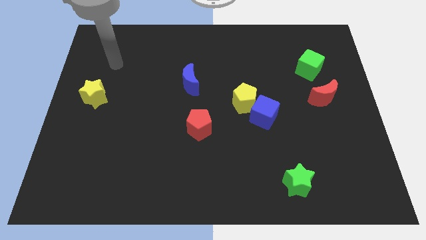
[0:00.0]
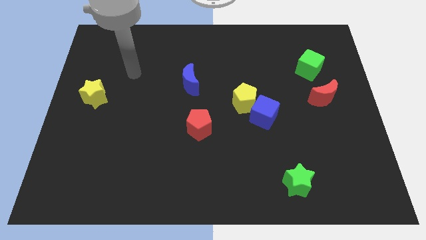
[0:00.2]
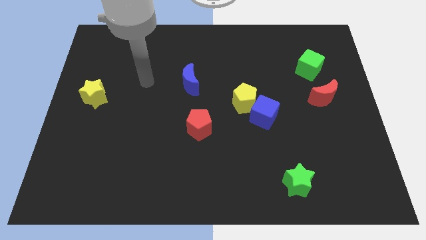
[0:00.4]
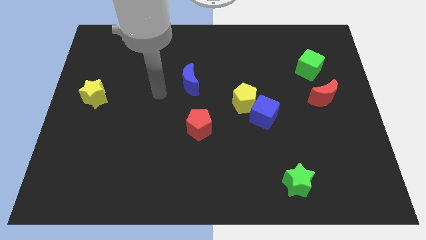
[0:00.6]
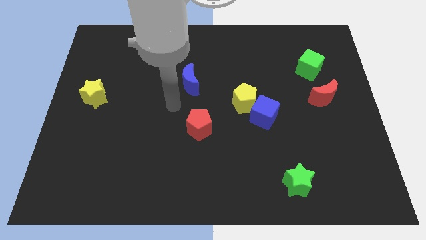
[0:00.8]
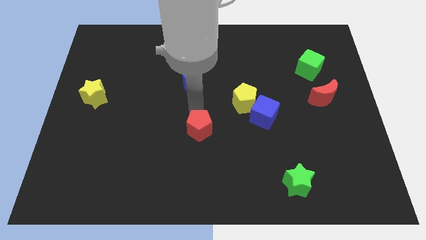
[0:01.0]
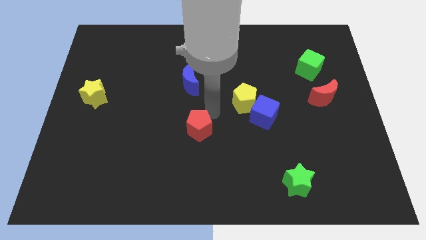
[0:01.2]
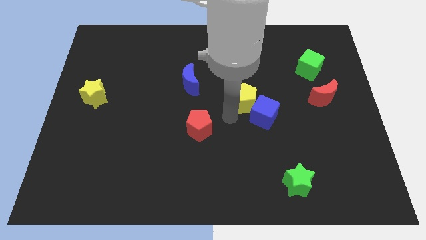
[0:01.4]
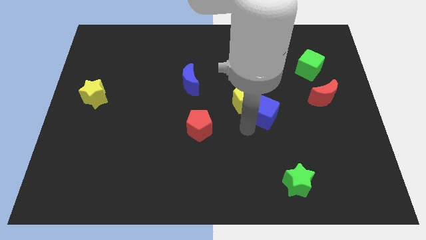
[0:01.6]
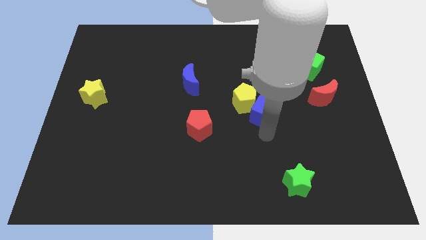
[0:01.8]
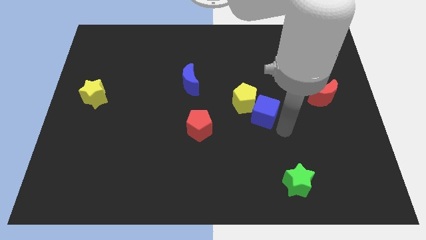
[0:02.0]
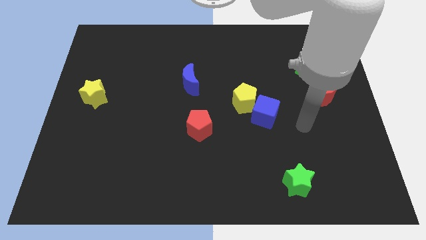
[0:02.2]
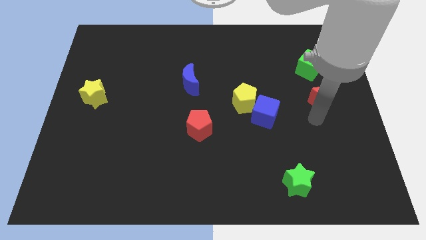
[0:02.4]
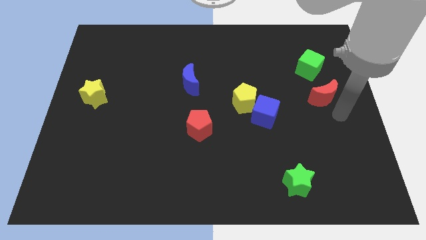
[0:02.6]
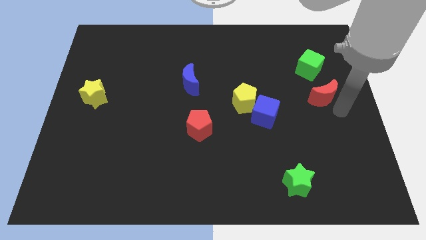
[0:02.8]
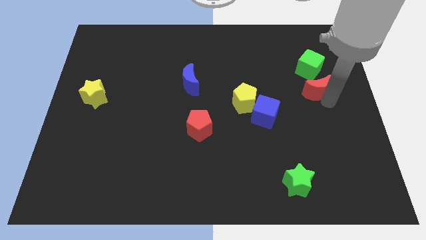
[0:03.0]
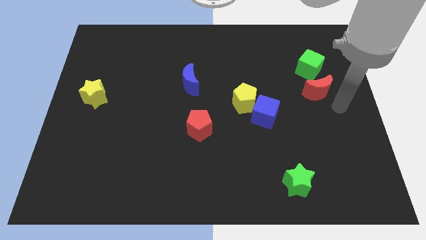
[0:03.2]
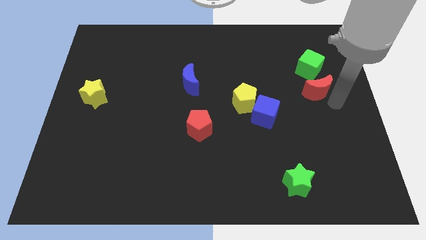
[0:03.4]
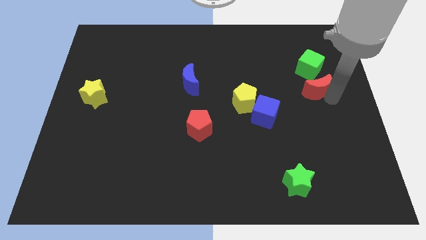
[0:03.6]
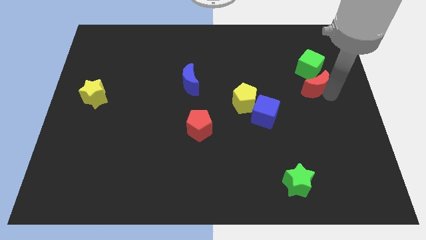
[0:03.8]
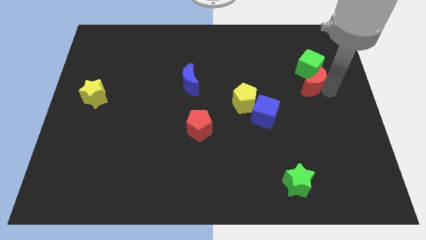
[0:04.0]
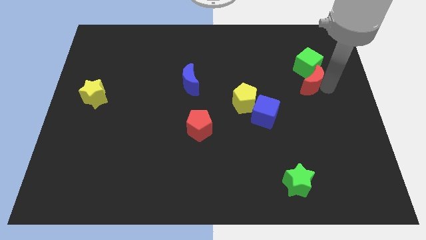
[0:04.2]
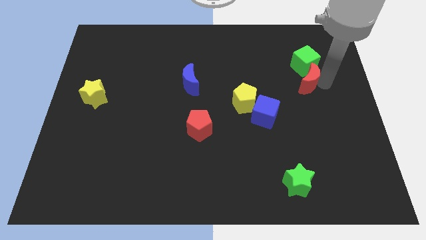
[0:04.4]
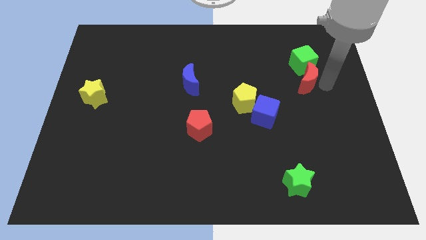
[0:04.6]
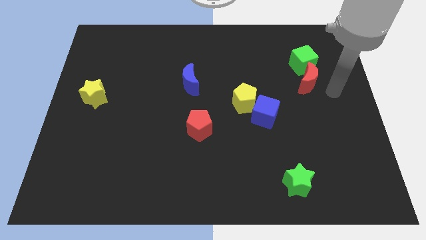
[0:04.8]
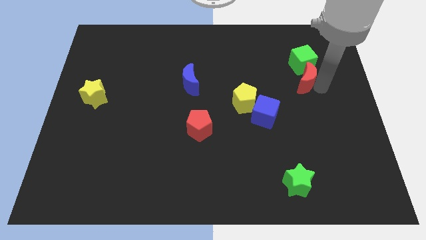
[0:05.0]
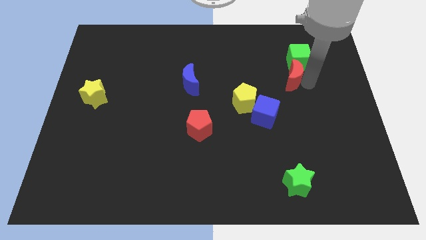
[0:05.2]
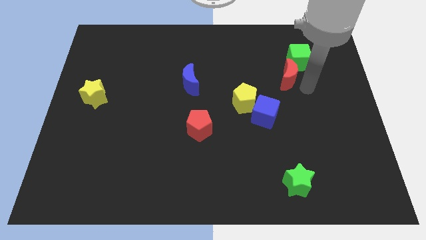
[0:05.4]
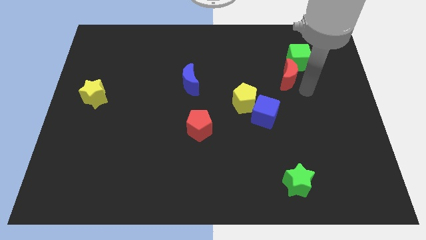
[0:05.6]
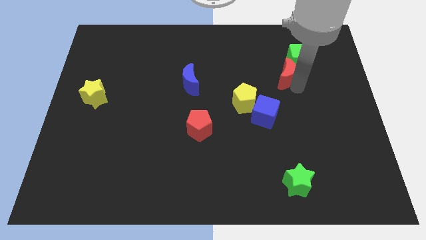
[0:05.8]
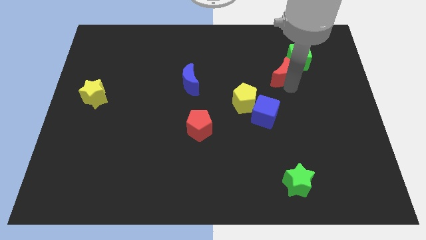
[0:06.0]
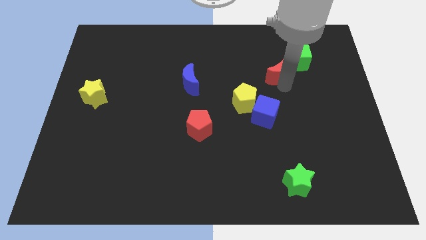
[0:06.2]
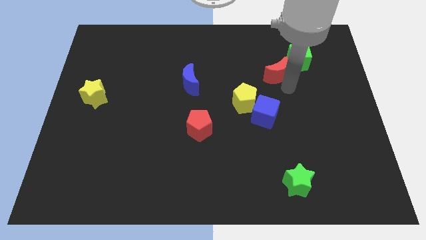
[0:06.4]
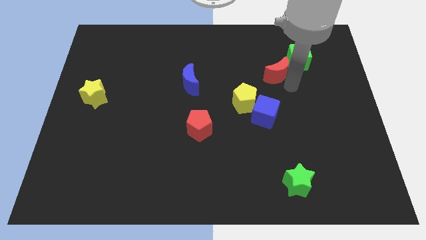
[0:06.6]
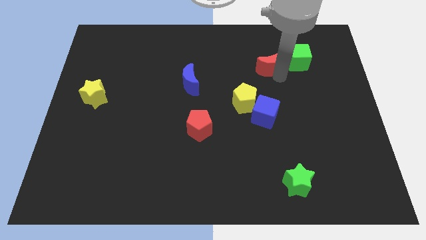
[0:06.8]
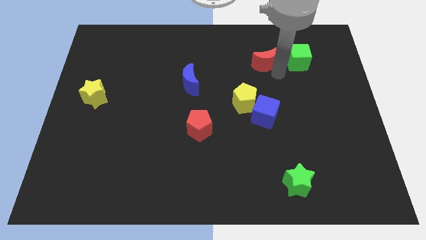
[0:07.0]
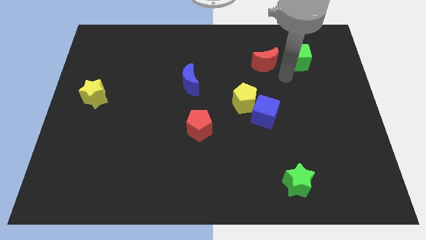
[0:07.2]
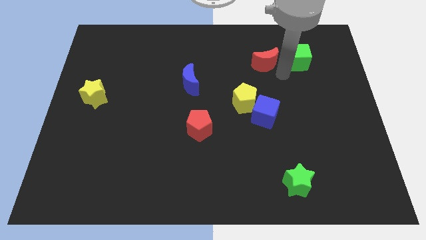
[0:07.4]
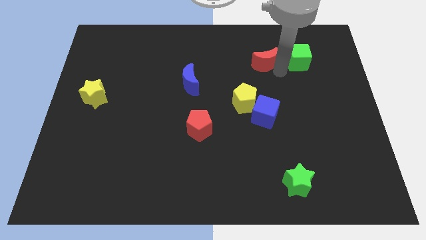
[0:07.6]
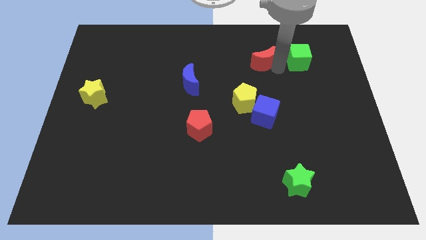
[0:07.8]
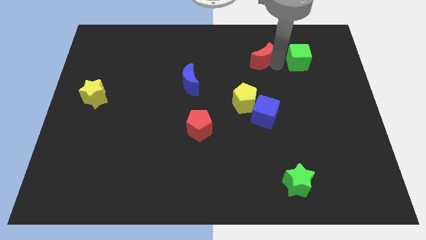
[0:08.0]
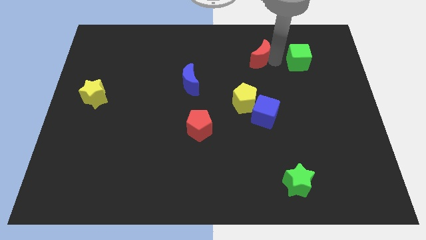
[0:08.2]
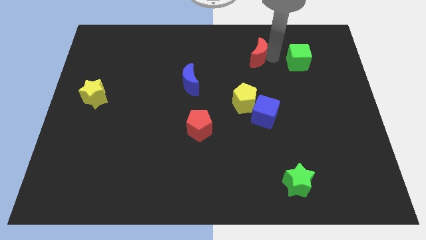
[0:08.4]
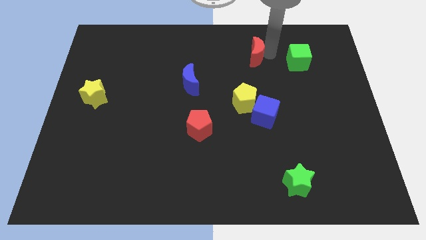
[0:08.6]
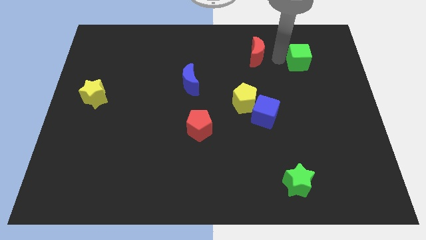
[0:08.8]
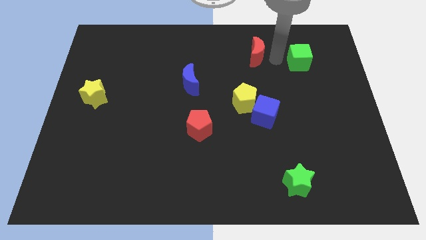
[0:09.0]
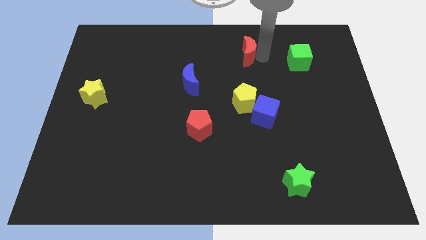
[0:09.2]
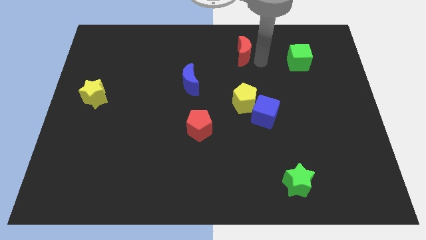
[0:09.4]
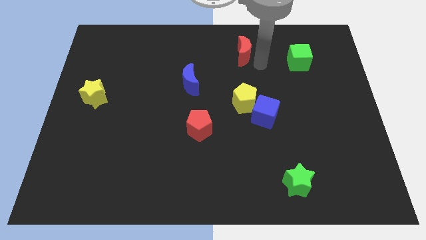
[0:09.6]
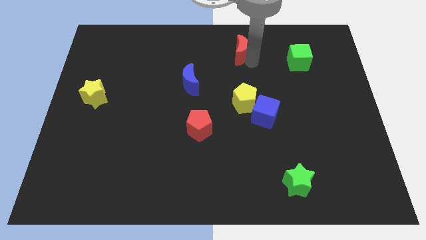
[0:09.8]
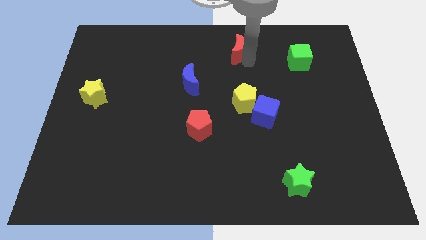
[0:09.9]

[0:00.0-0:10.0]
slide the red moon to the top

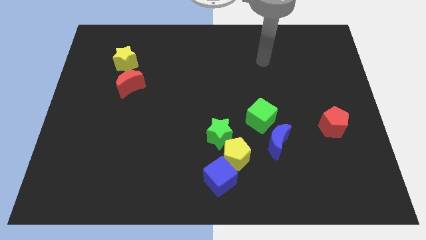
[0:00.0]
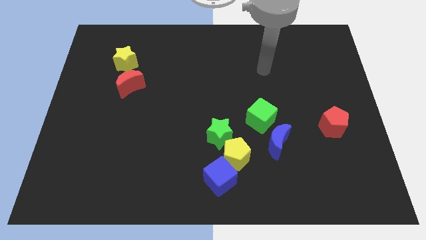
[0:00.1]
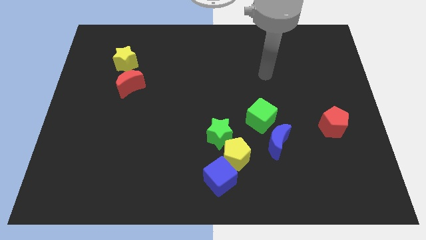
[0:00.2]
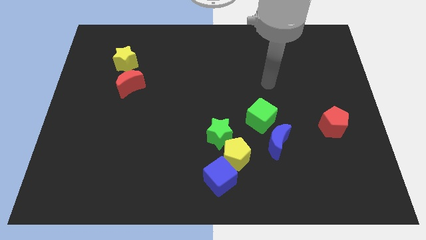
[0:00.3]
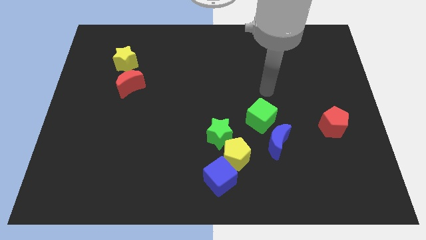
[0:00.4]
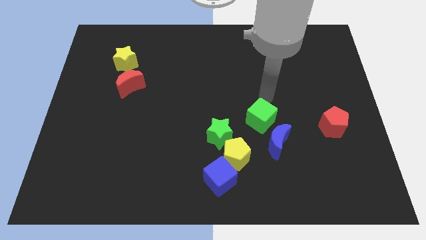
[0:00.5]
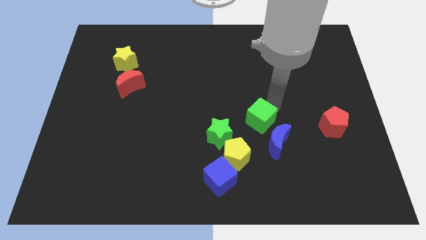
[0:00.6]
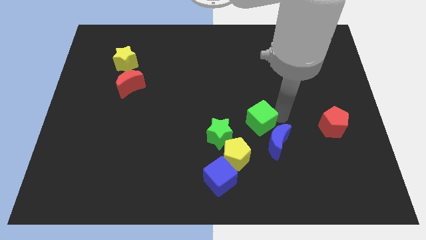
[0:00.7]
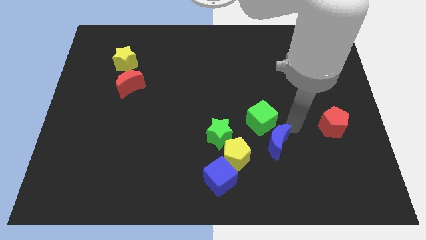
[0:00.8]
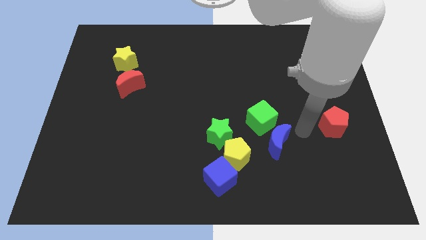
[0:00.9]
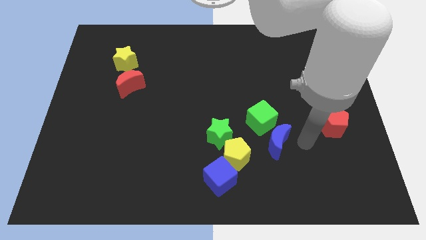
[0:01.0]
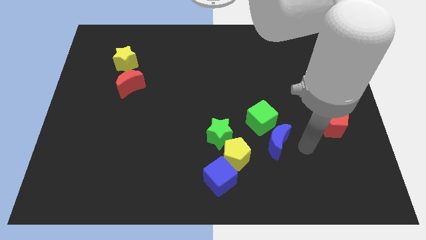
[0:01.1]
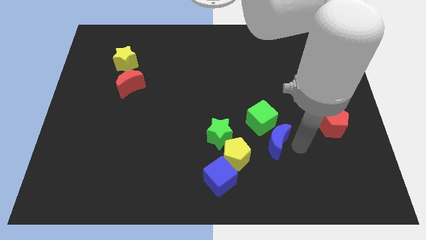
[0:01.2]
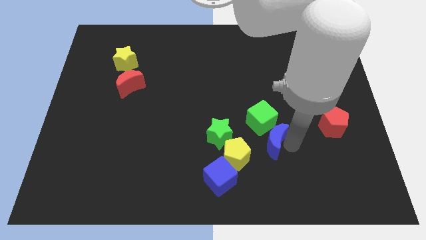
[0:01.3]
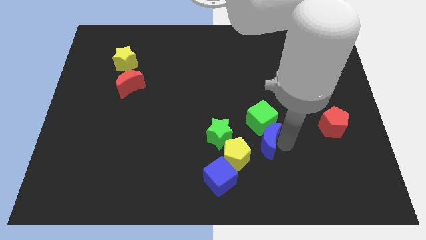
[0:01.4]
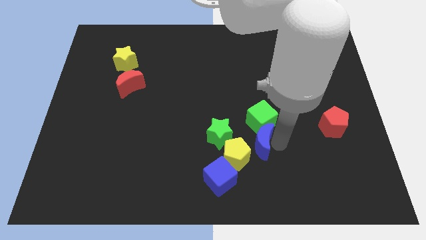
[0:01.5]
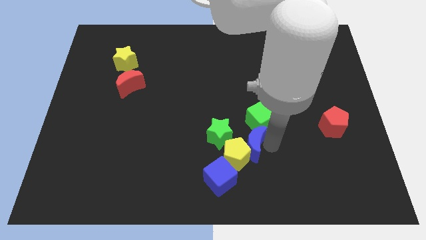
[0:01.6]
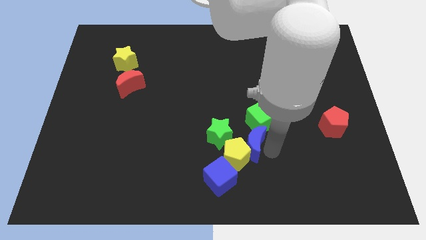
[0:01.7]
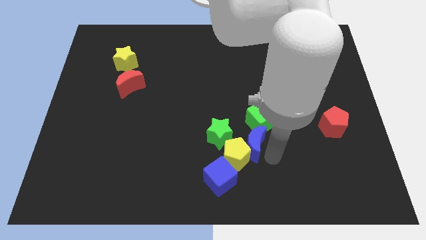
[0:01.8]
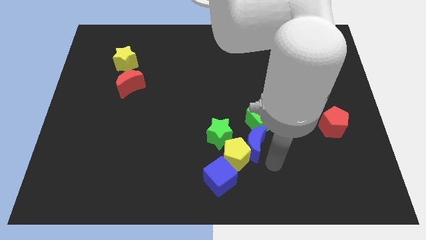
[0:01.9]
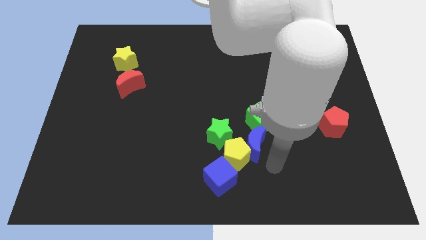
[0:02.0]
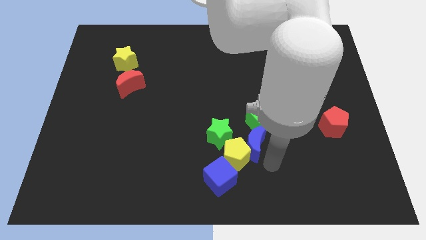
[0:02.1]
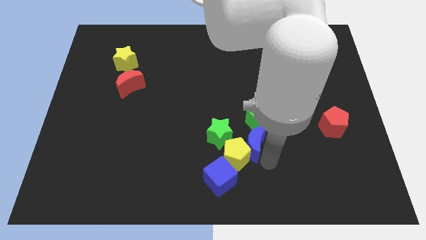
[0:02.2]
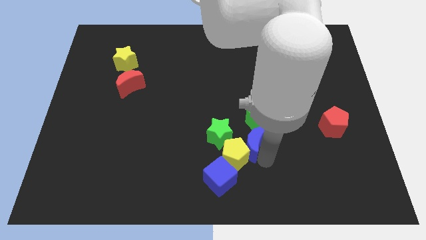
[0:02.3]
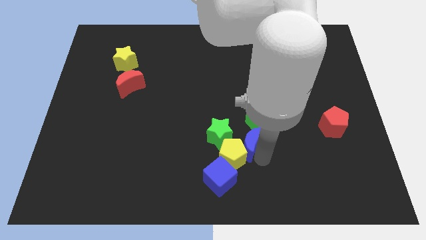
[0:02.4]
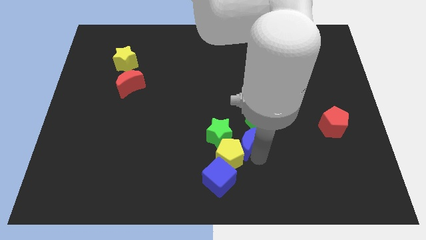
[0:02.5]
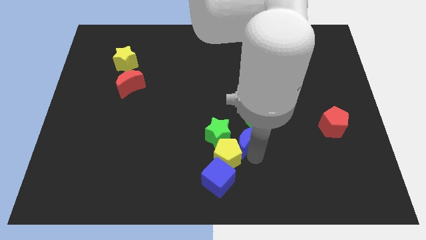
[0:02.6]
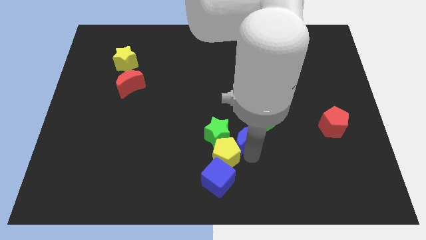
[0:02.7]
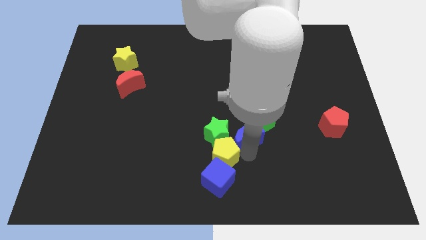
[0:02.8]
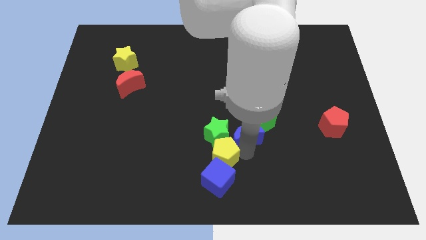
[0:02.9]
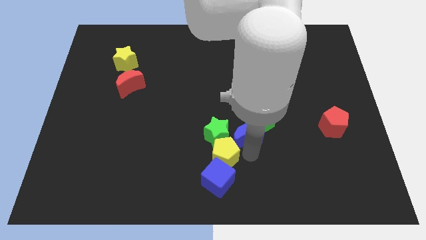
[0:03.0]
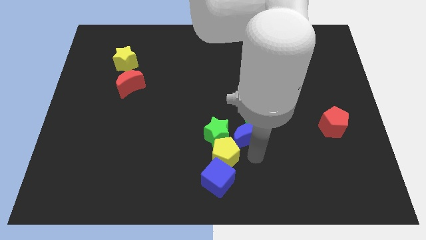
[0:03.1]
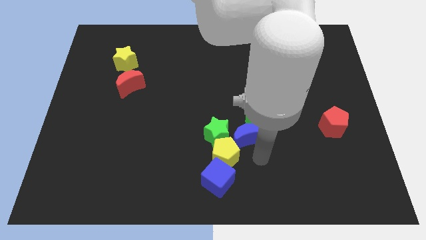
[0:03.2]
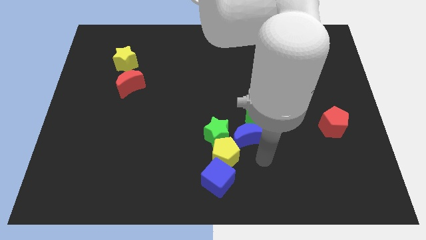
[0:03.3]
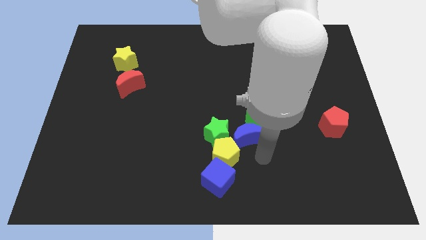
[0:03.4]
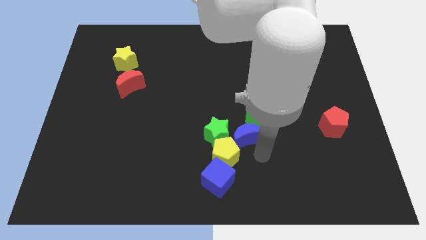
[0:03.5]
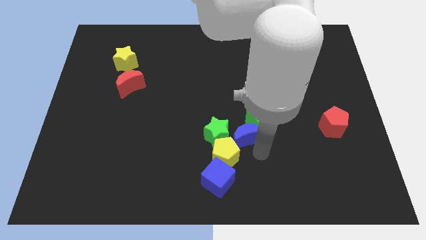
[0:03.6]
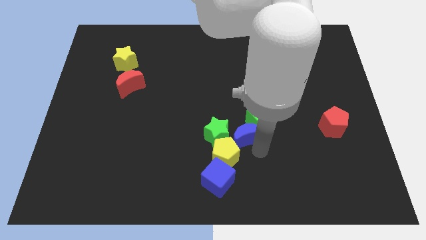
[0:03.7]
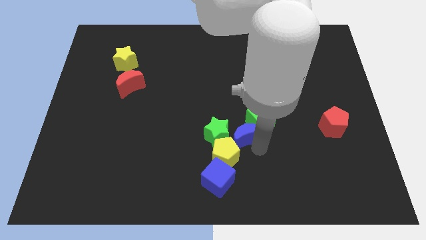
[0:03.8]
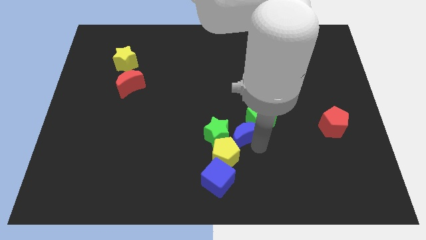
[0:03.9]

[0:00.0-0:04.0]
slide the blue moon to the middle

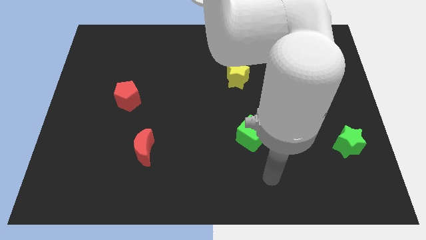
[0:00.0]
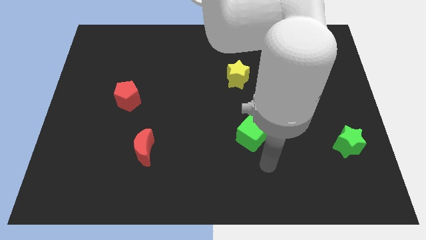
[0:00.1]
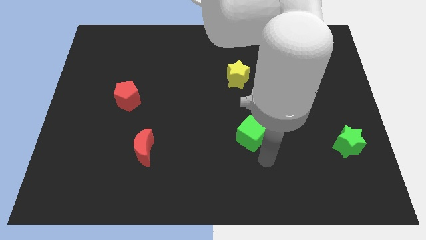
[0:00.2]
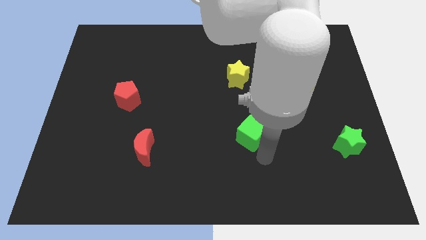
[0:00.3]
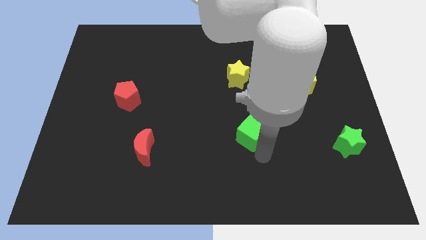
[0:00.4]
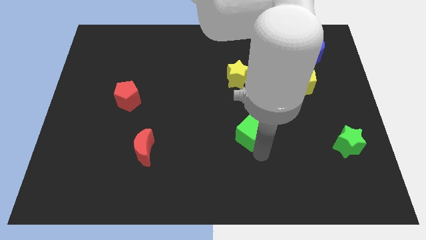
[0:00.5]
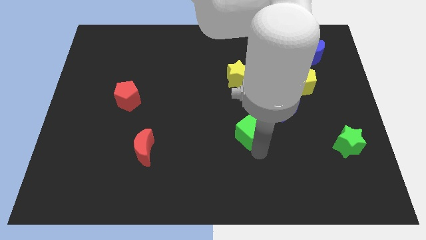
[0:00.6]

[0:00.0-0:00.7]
push the green cube to the center
